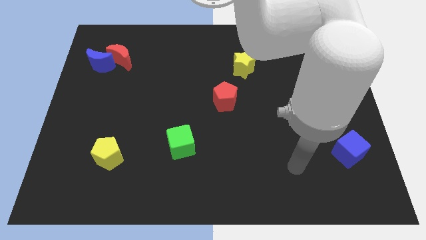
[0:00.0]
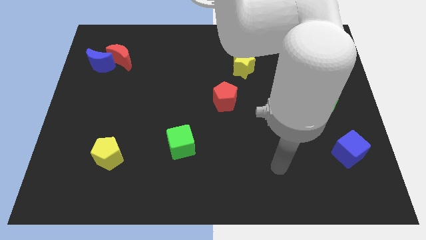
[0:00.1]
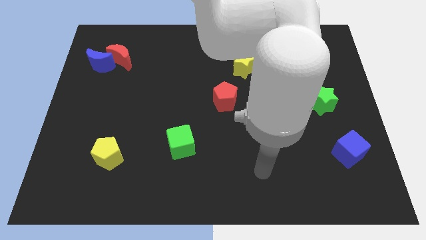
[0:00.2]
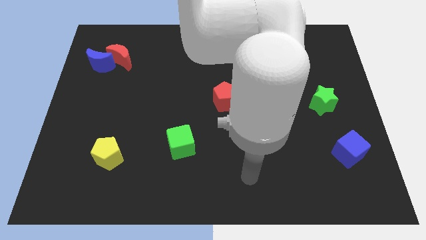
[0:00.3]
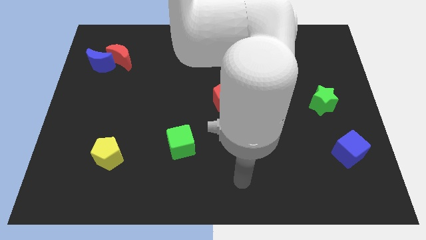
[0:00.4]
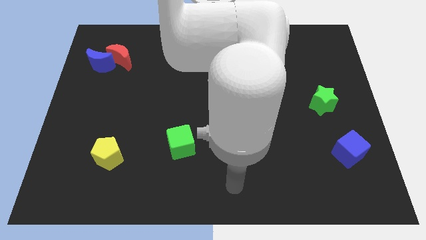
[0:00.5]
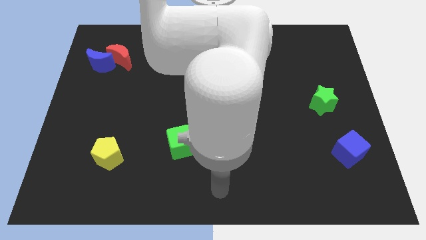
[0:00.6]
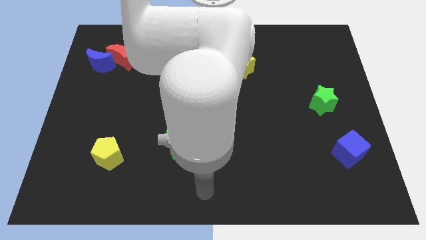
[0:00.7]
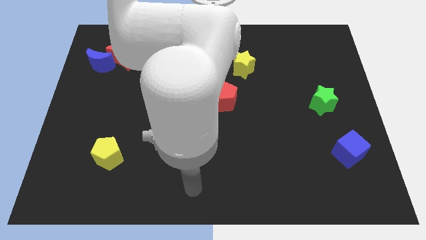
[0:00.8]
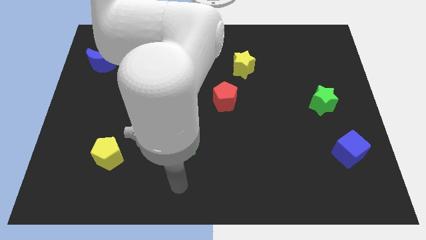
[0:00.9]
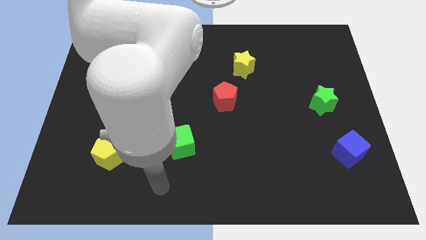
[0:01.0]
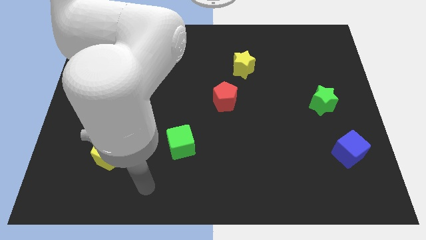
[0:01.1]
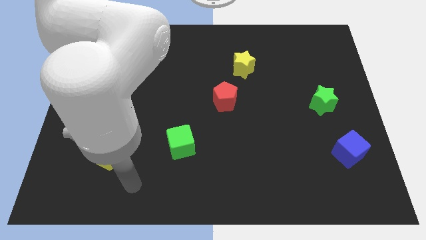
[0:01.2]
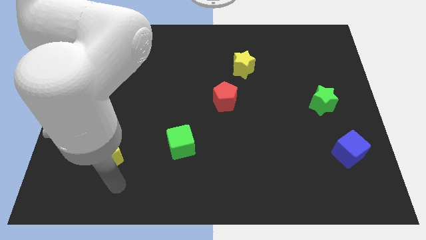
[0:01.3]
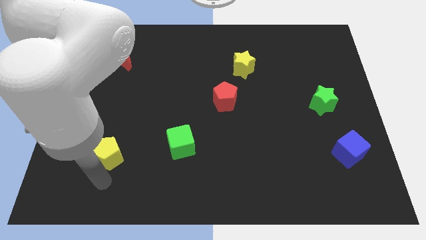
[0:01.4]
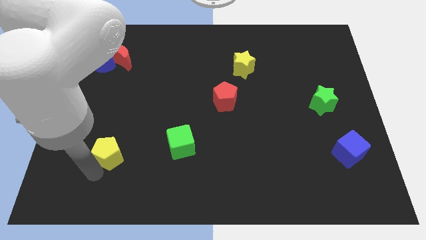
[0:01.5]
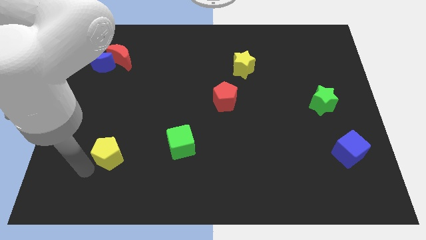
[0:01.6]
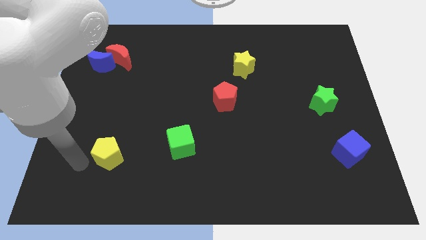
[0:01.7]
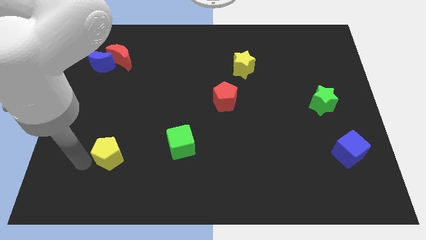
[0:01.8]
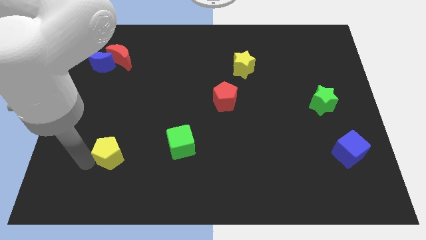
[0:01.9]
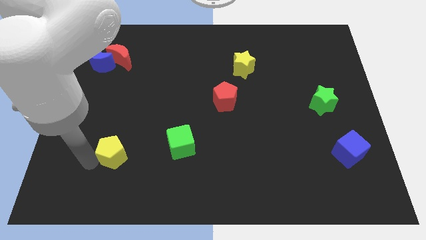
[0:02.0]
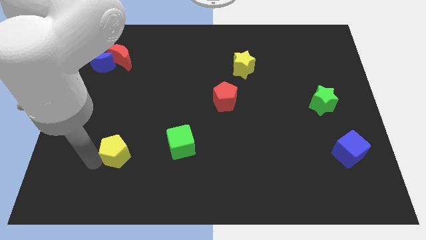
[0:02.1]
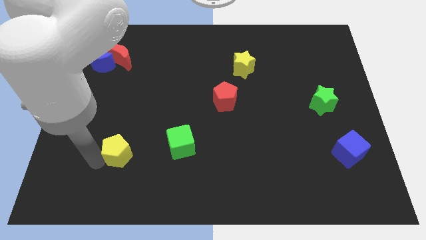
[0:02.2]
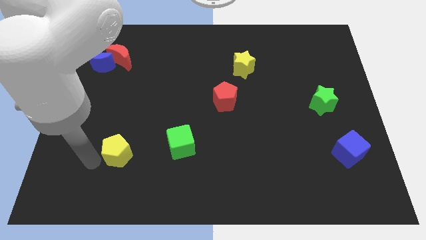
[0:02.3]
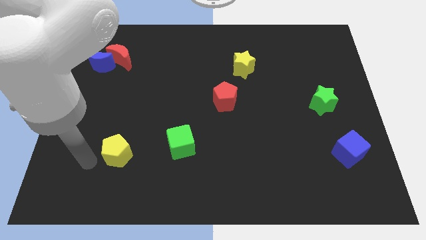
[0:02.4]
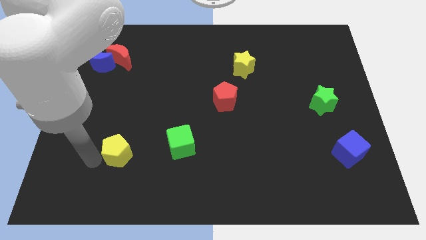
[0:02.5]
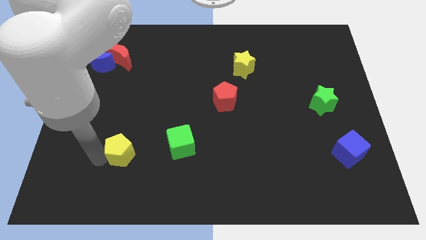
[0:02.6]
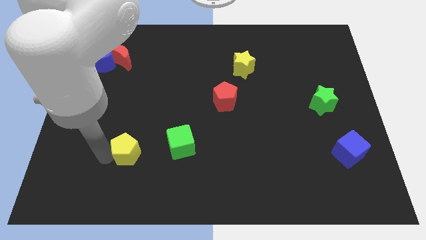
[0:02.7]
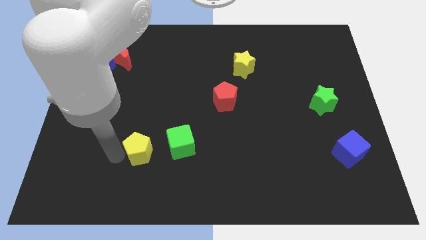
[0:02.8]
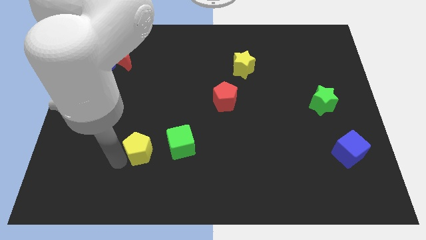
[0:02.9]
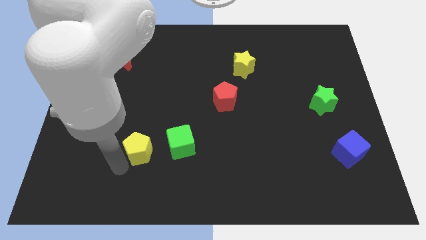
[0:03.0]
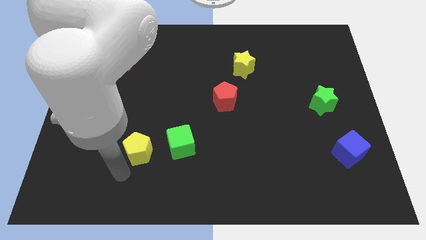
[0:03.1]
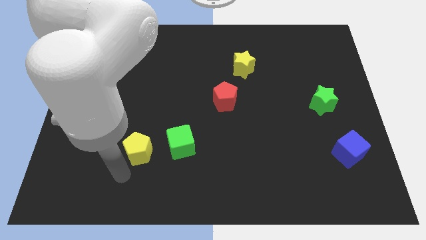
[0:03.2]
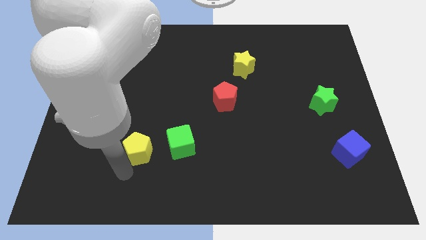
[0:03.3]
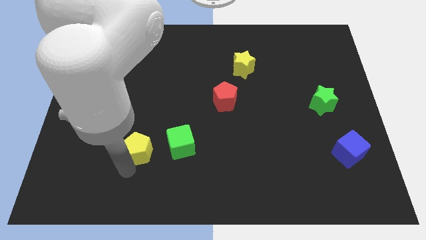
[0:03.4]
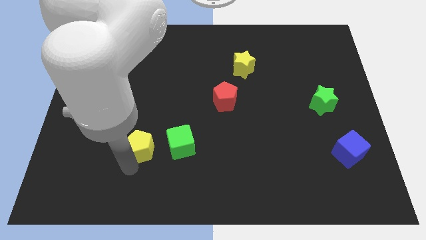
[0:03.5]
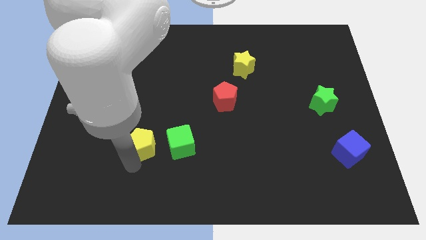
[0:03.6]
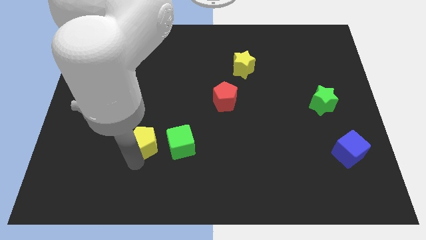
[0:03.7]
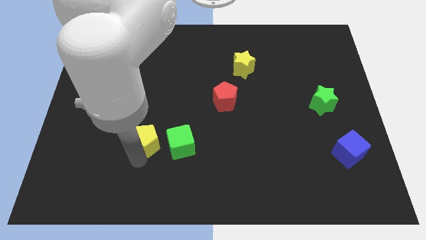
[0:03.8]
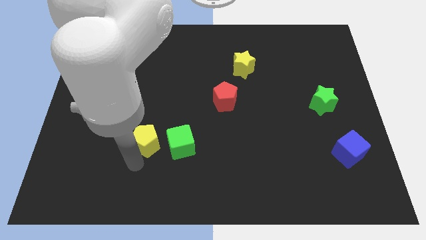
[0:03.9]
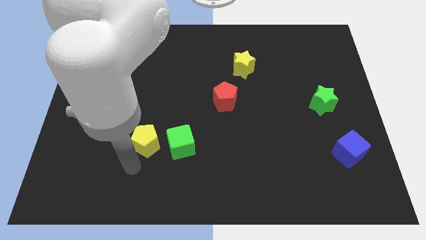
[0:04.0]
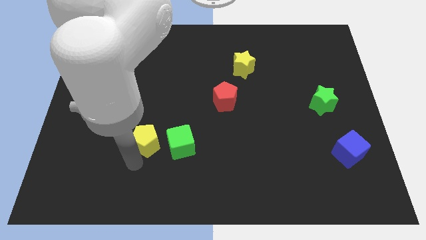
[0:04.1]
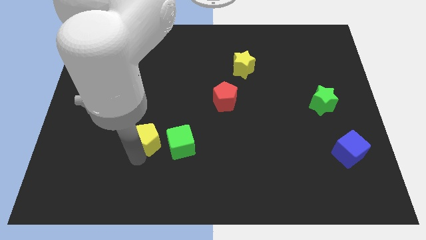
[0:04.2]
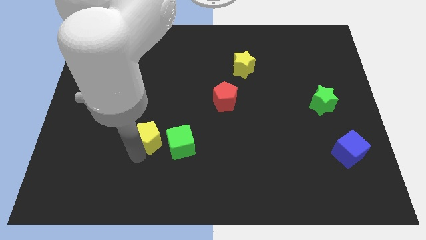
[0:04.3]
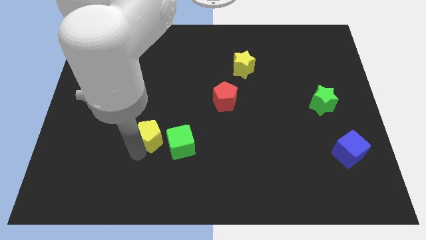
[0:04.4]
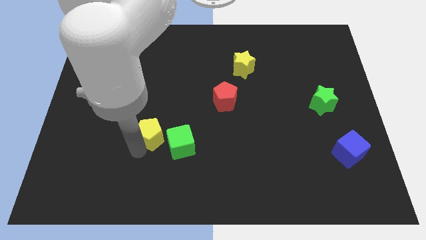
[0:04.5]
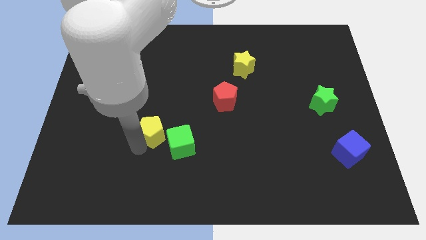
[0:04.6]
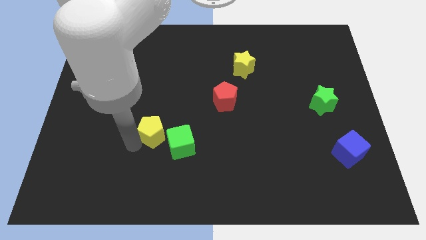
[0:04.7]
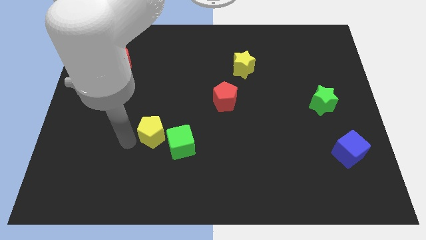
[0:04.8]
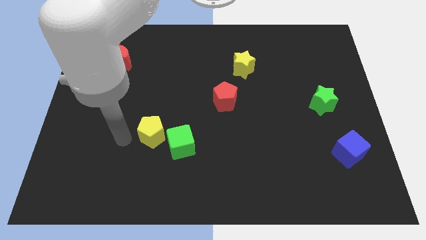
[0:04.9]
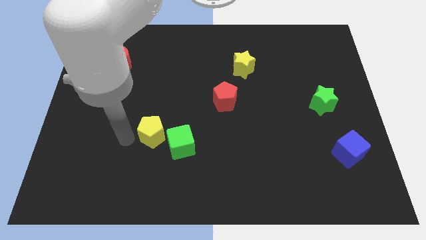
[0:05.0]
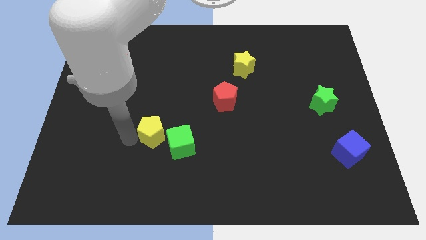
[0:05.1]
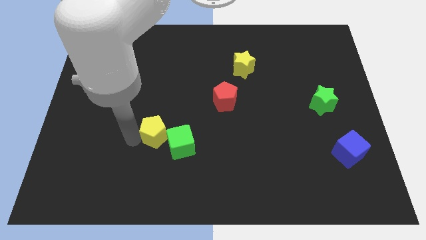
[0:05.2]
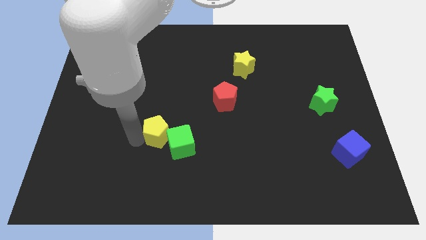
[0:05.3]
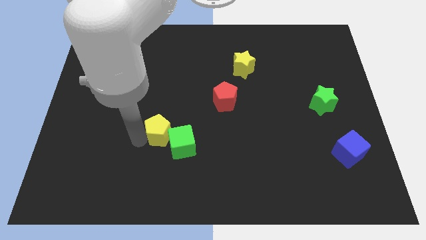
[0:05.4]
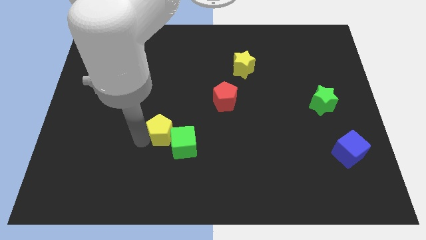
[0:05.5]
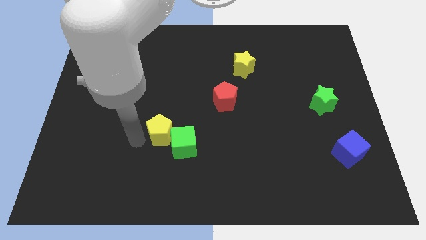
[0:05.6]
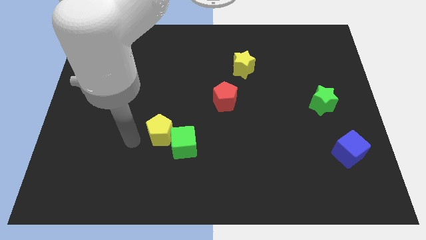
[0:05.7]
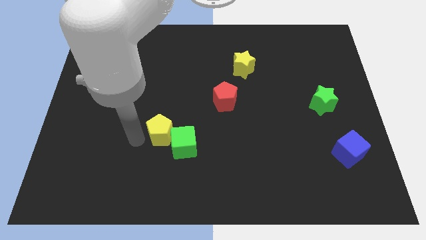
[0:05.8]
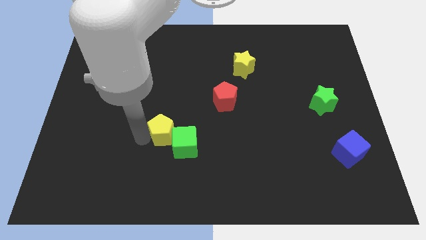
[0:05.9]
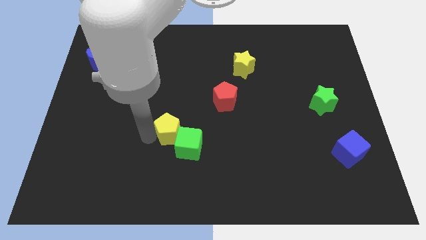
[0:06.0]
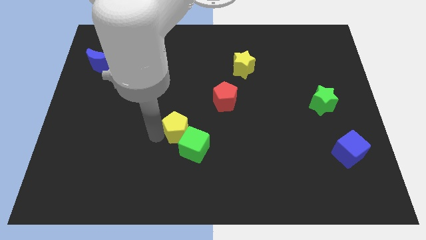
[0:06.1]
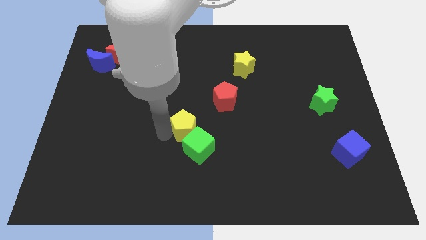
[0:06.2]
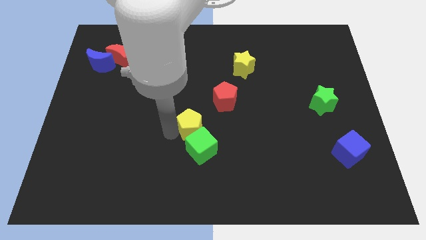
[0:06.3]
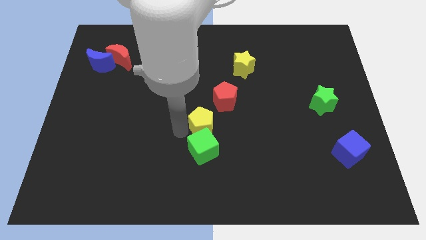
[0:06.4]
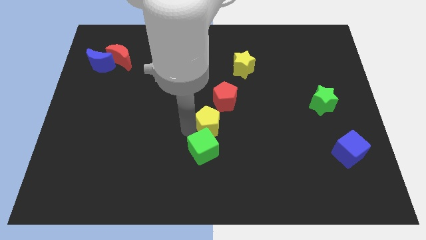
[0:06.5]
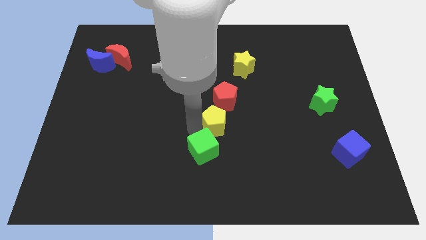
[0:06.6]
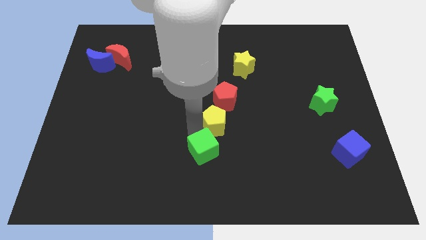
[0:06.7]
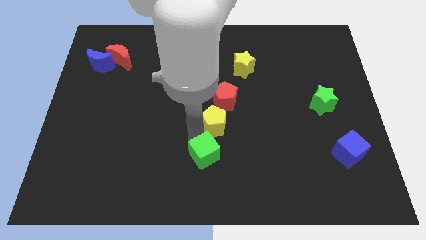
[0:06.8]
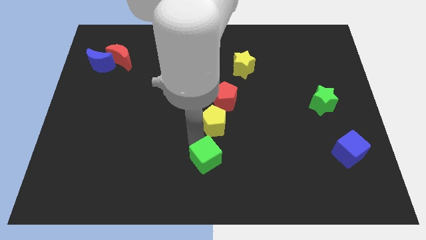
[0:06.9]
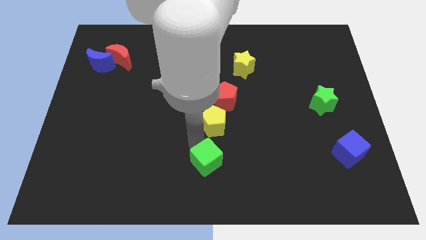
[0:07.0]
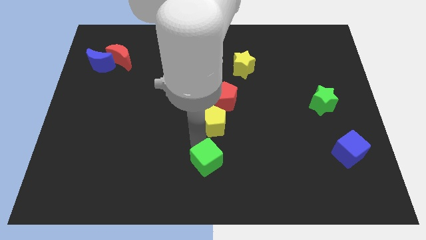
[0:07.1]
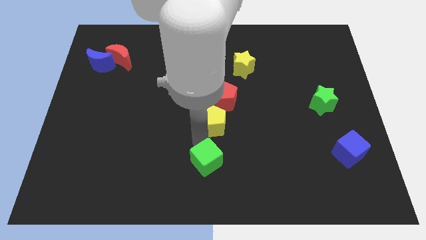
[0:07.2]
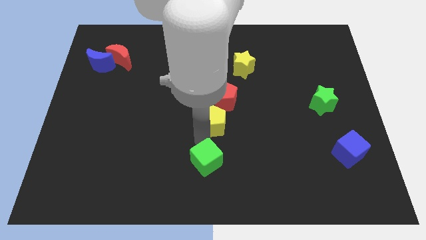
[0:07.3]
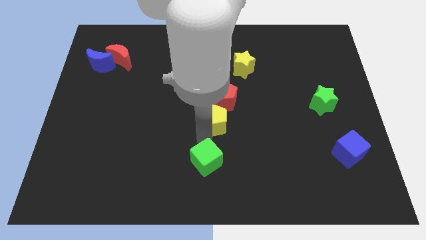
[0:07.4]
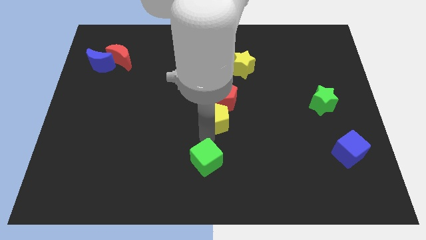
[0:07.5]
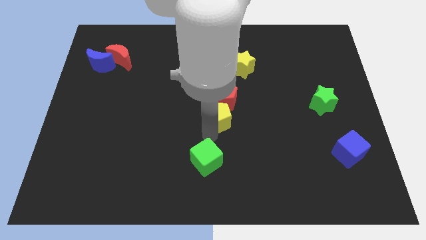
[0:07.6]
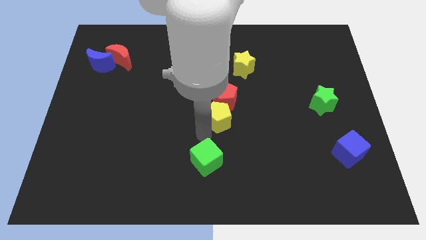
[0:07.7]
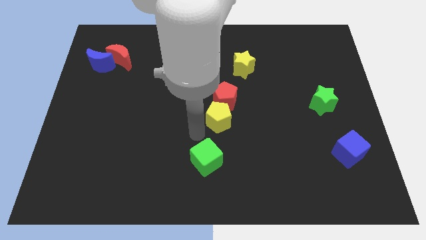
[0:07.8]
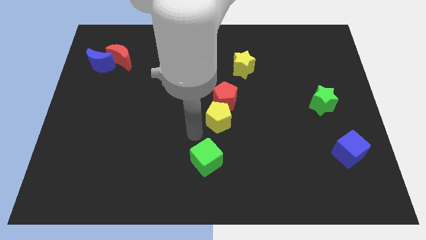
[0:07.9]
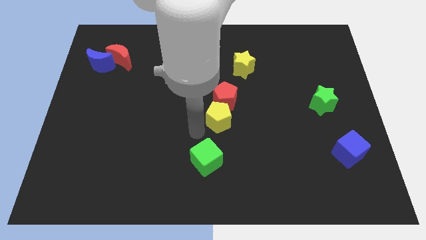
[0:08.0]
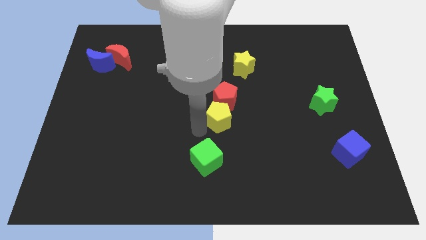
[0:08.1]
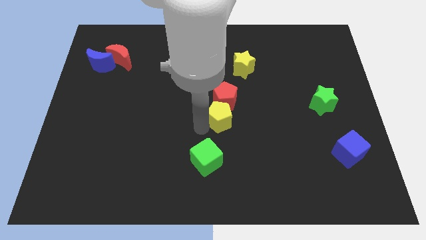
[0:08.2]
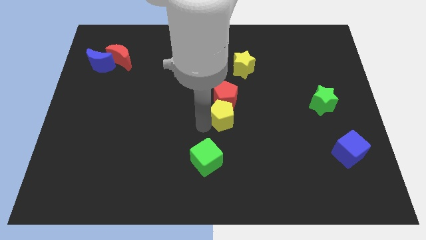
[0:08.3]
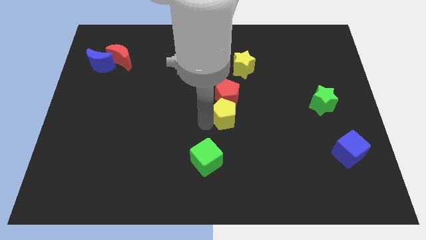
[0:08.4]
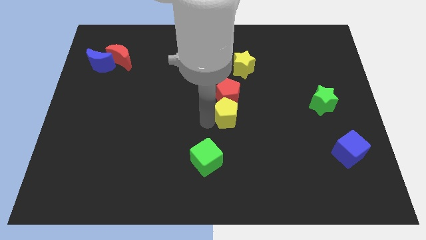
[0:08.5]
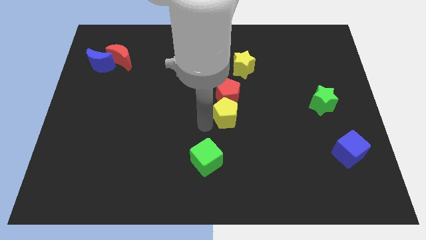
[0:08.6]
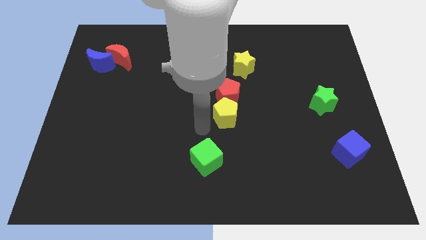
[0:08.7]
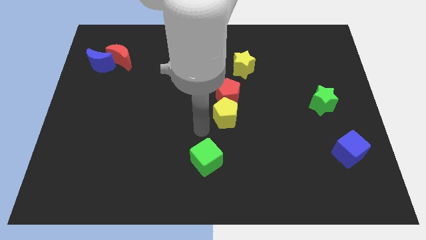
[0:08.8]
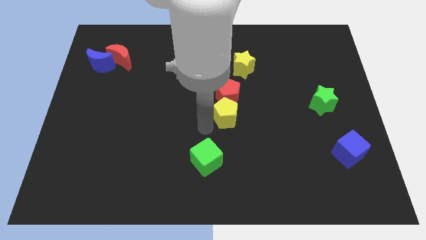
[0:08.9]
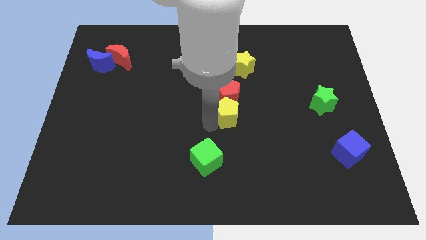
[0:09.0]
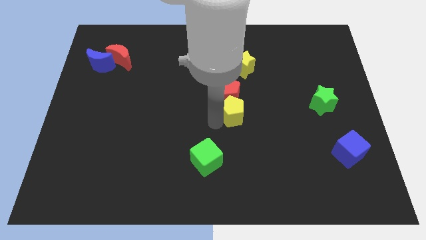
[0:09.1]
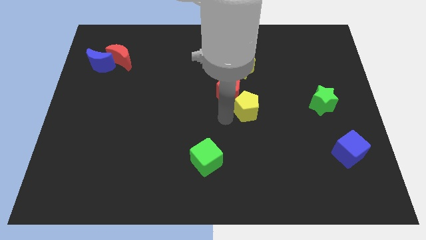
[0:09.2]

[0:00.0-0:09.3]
push the yellow pentagon right of the red pentagon
